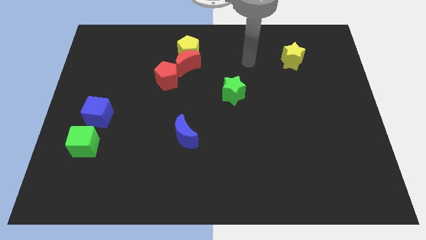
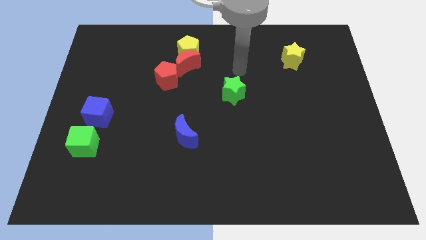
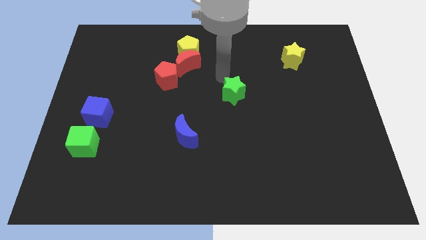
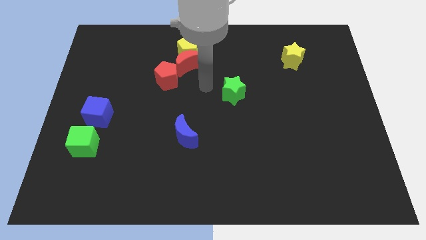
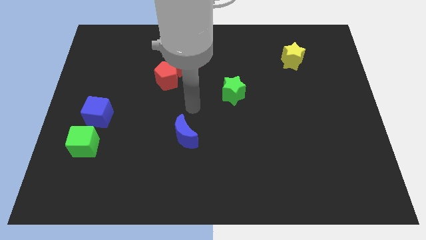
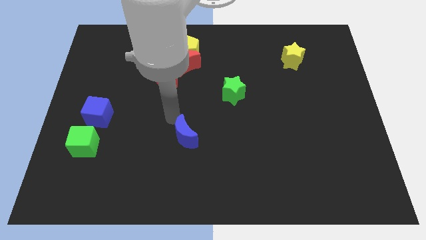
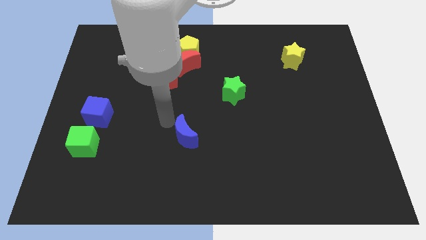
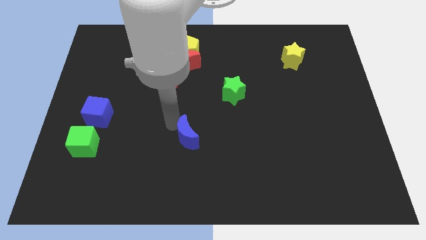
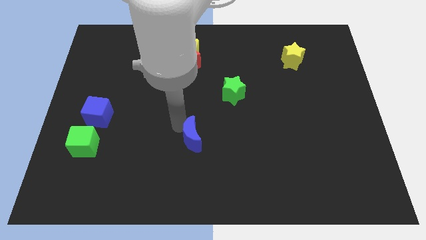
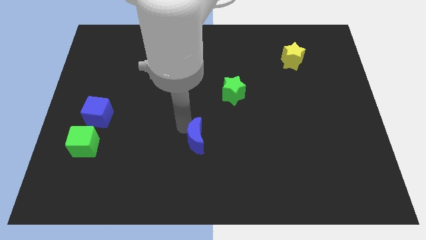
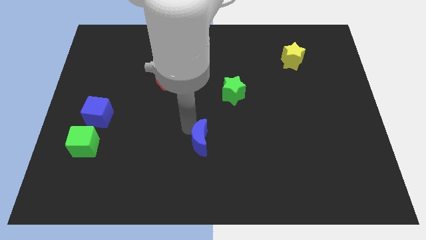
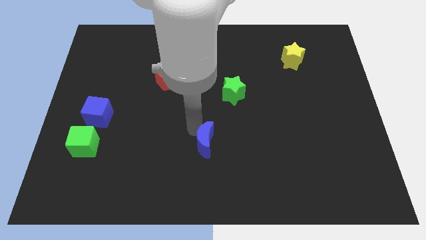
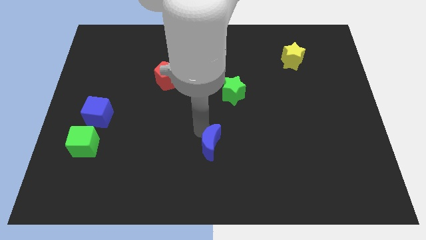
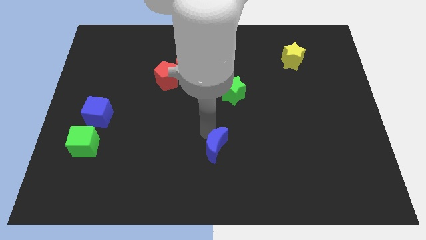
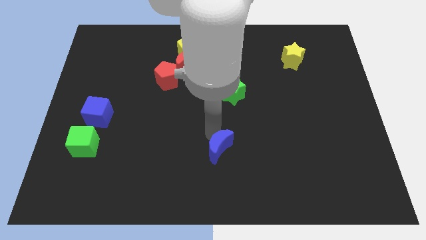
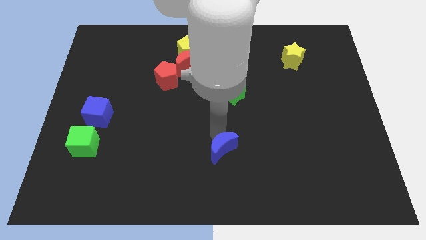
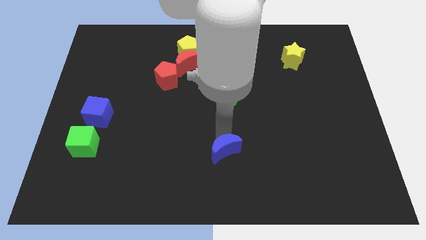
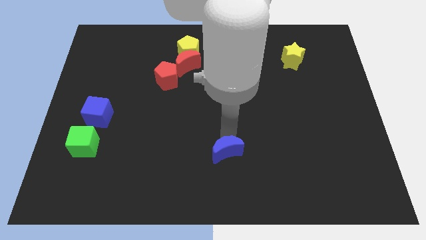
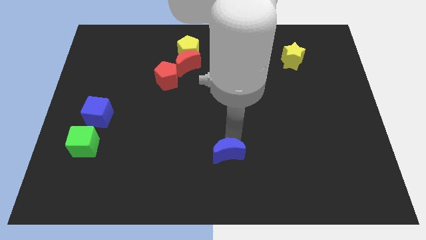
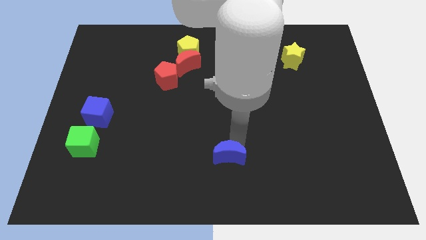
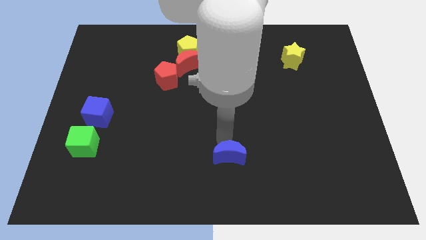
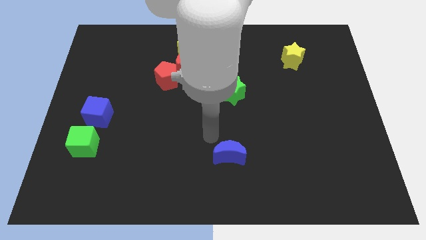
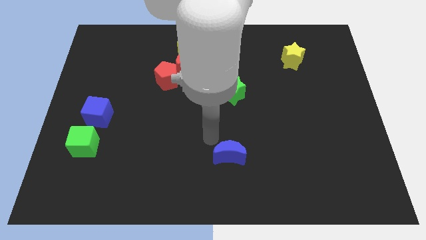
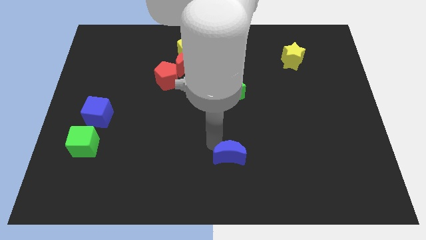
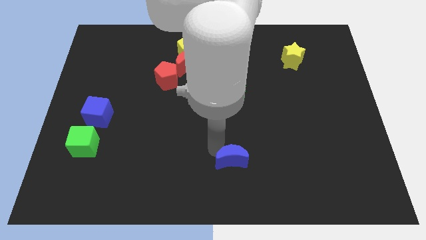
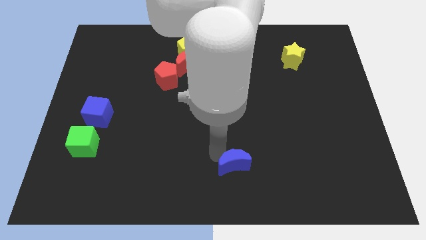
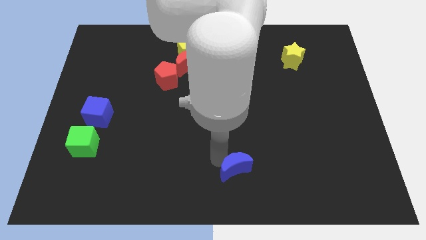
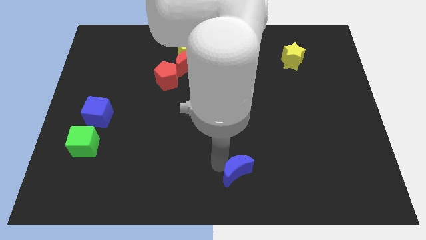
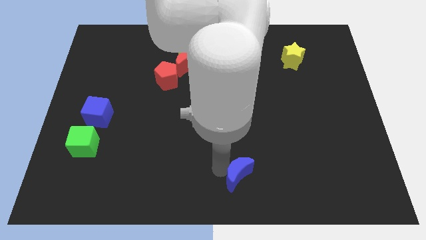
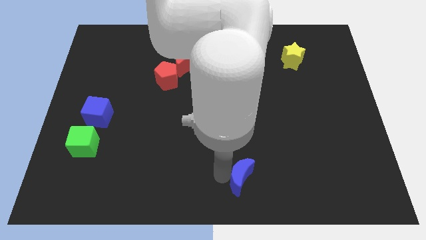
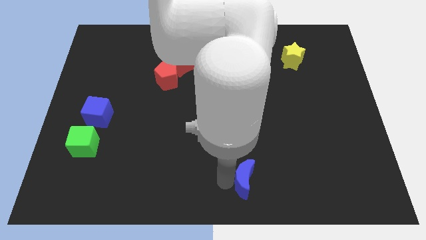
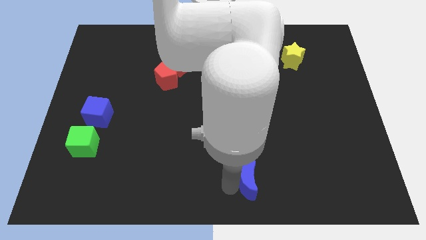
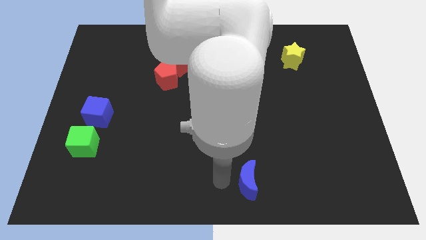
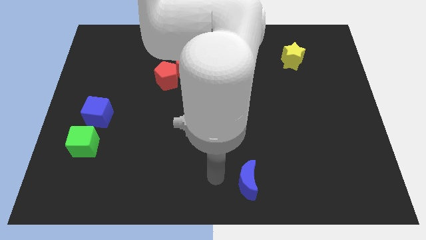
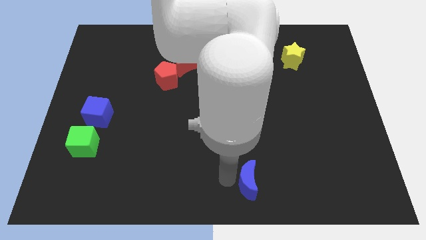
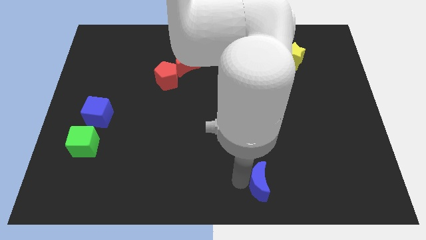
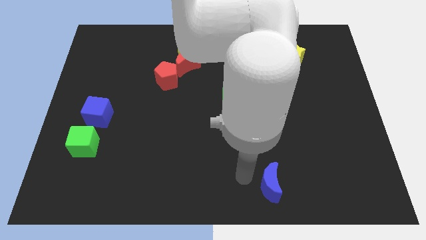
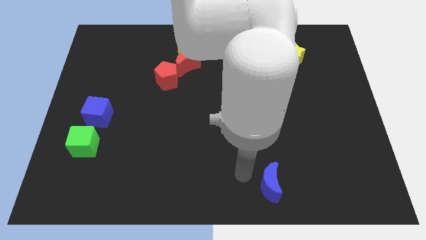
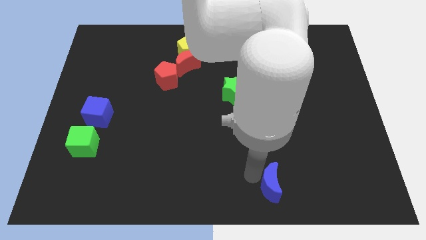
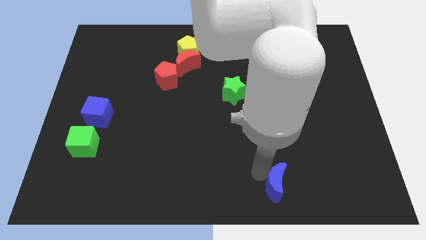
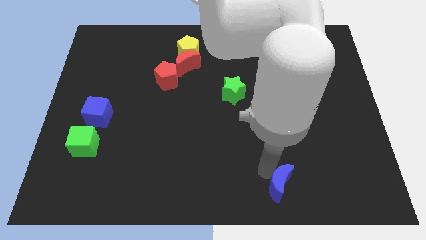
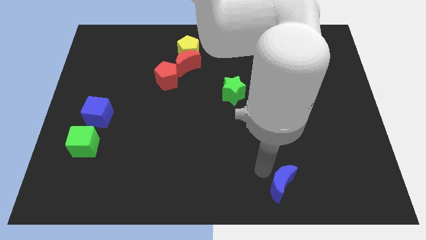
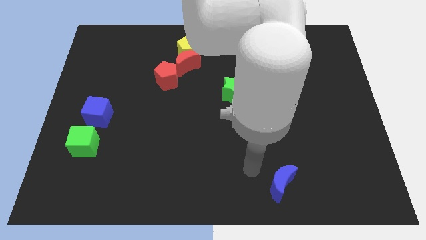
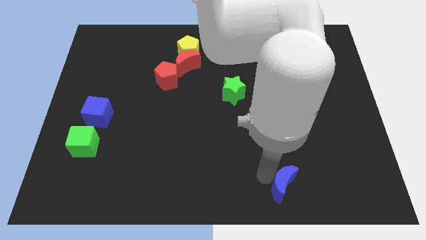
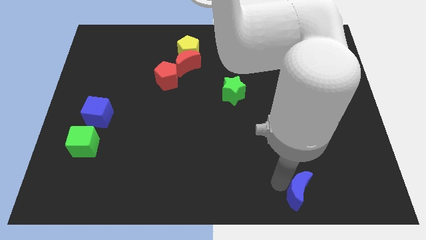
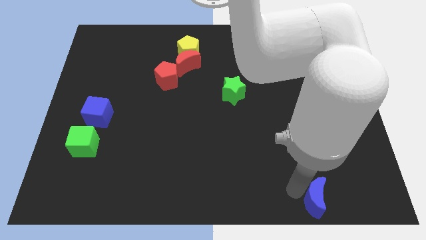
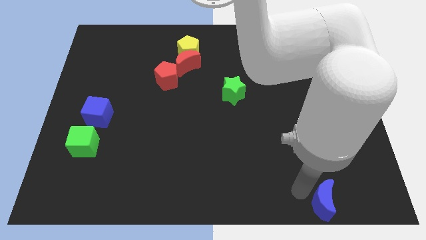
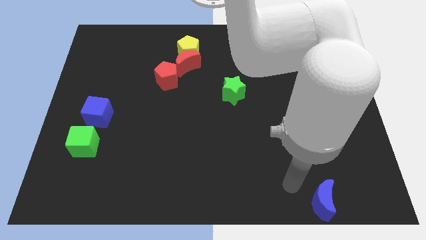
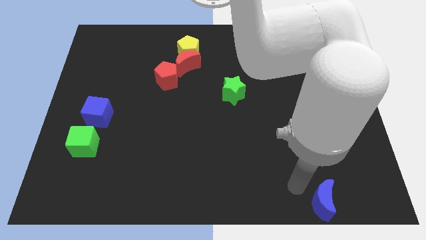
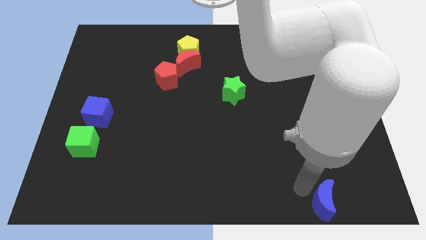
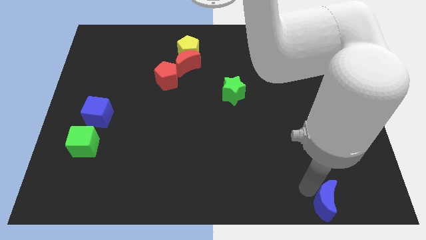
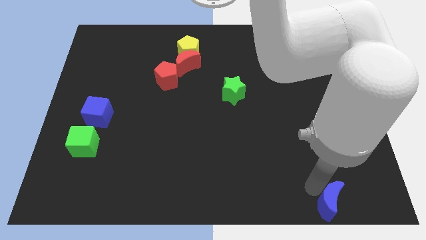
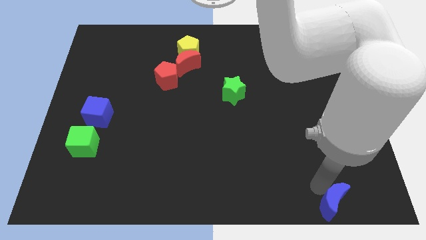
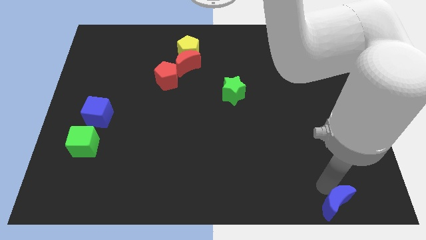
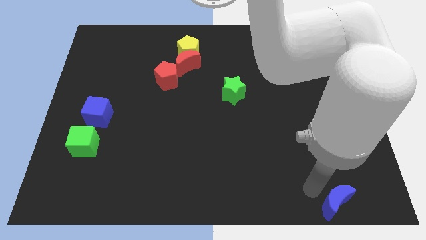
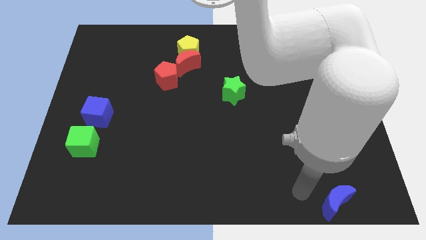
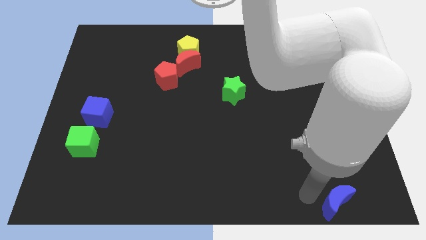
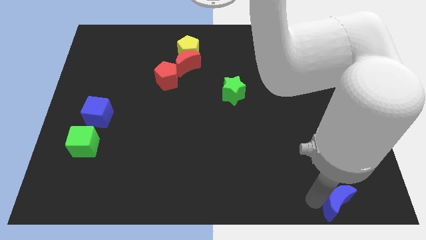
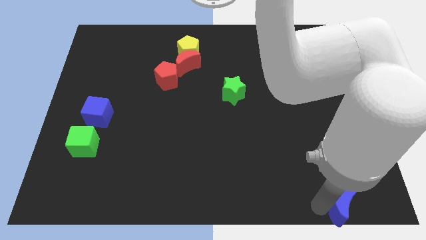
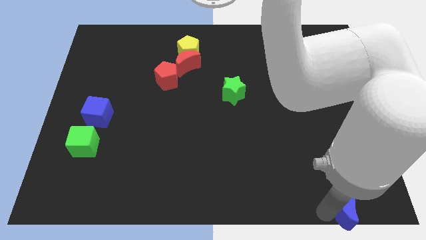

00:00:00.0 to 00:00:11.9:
move the blue moon to the bottom right

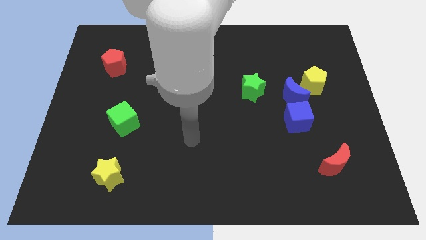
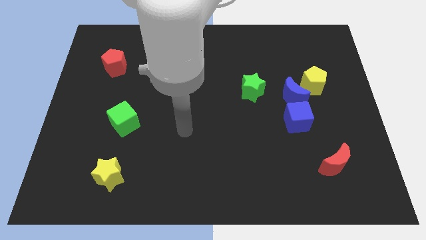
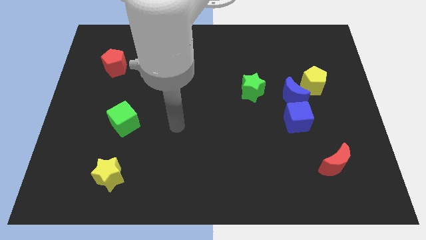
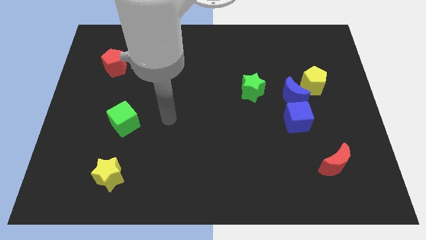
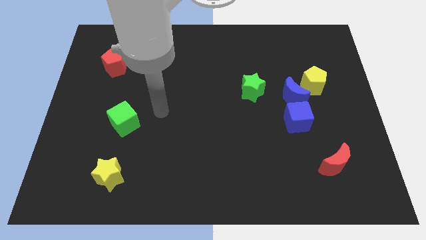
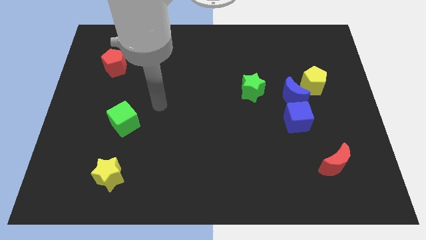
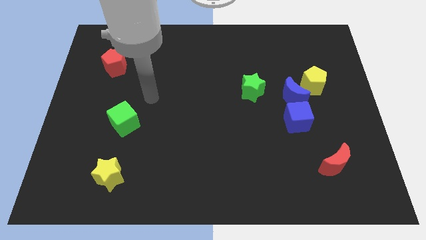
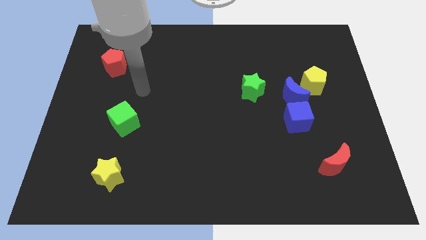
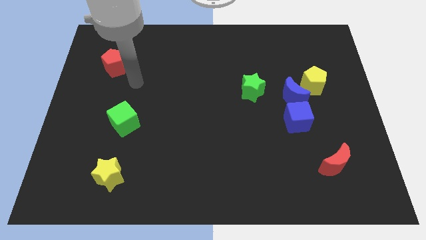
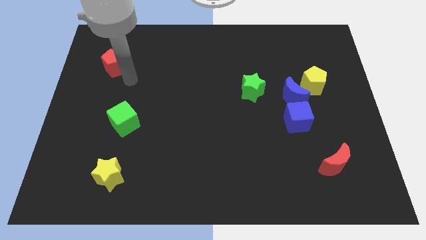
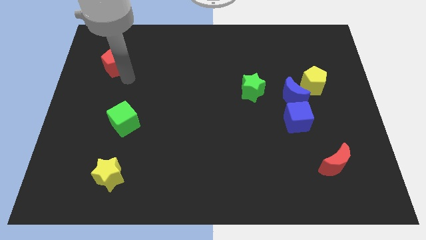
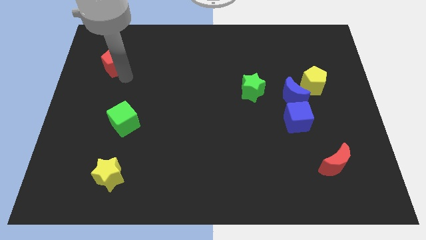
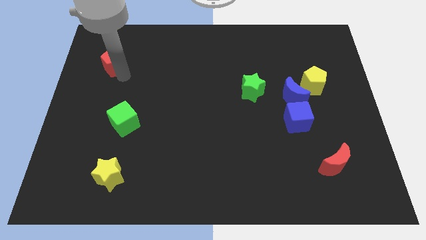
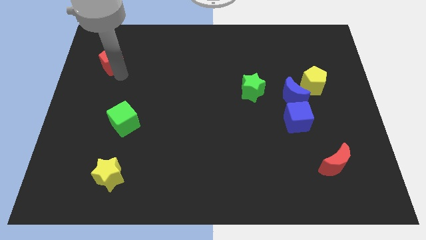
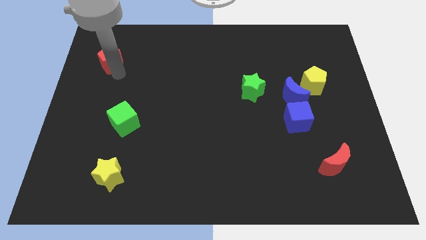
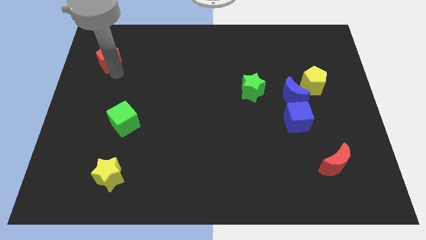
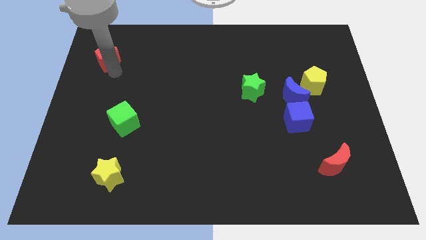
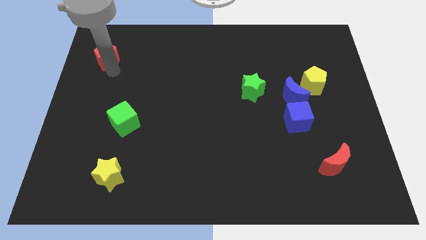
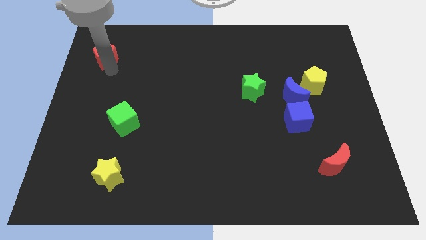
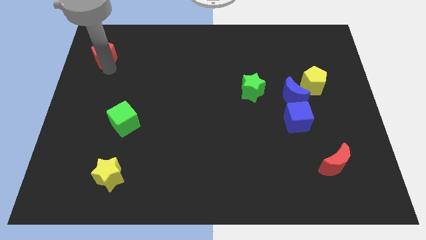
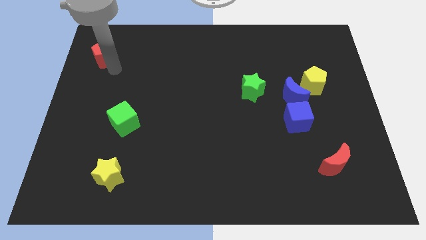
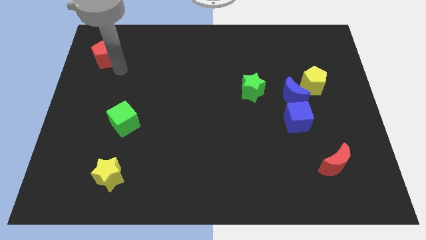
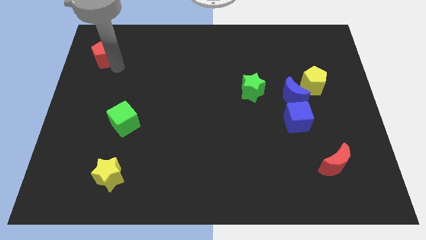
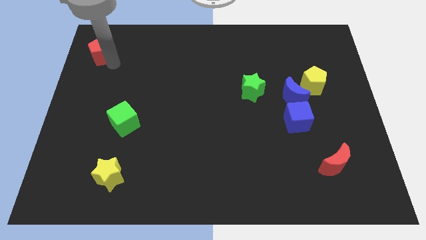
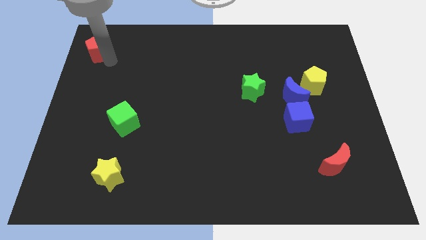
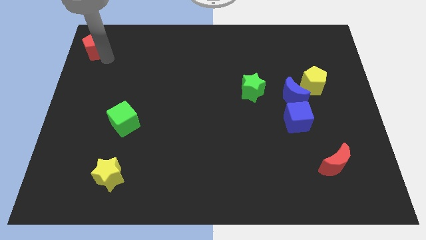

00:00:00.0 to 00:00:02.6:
push the red pentagon to the top left of the board
